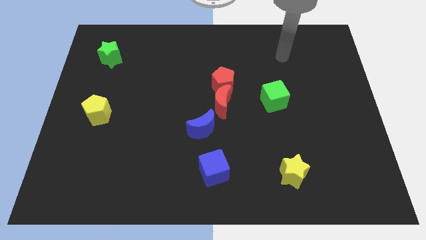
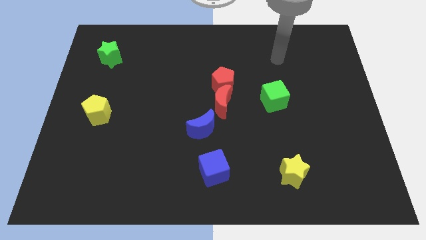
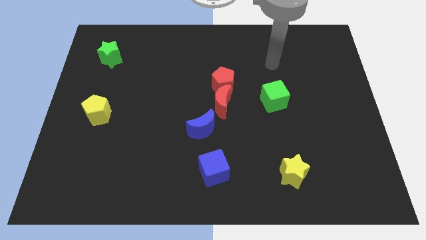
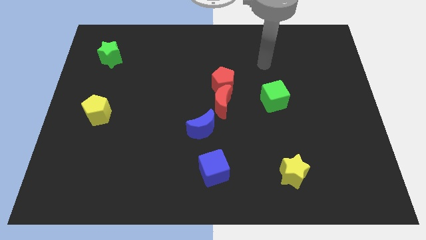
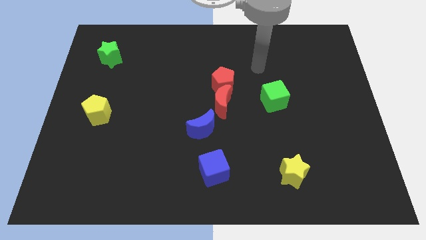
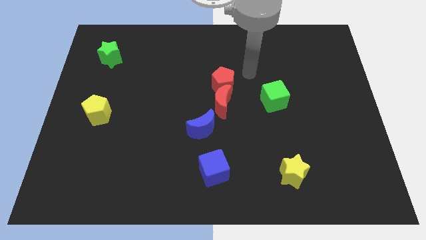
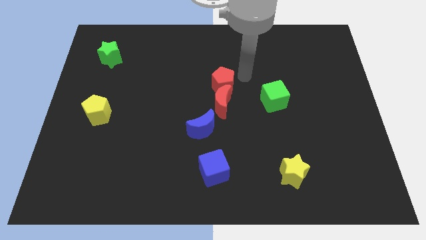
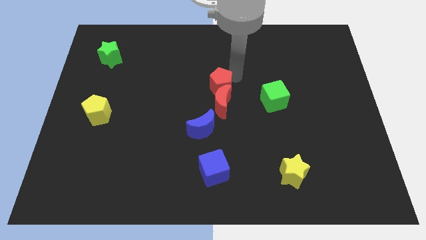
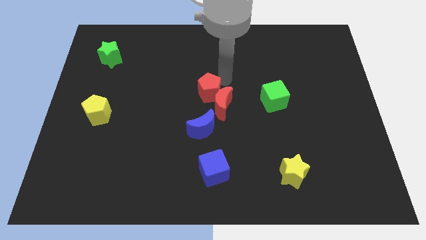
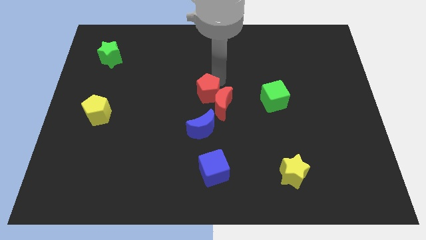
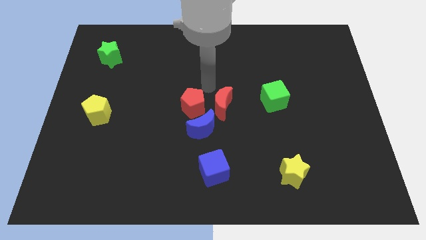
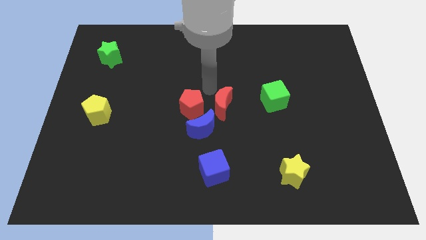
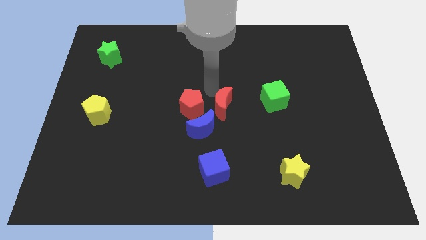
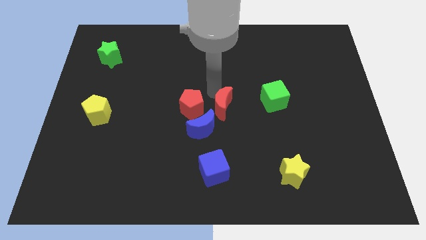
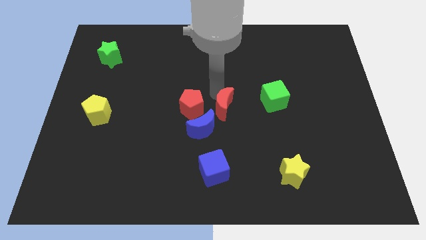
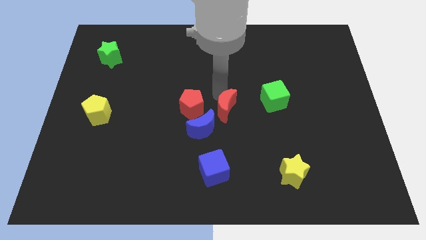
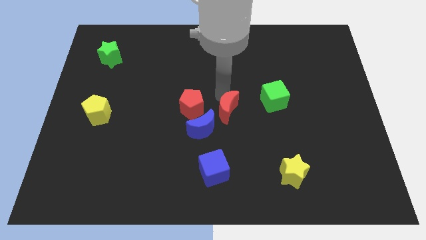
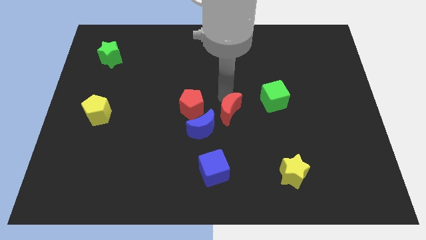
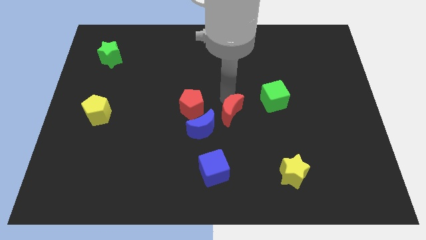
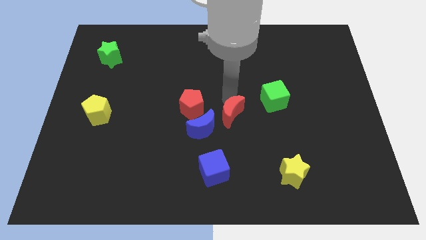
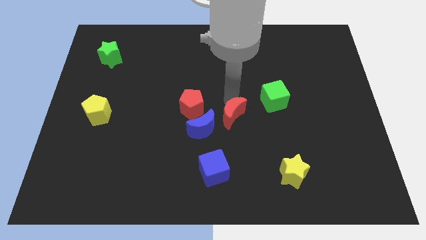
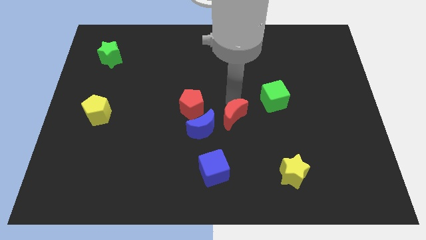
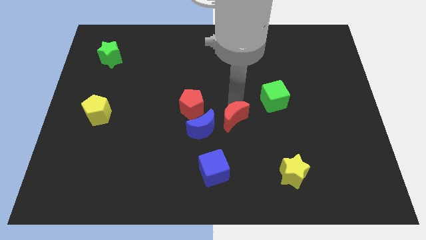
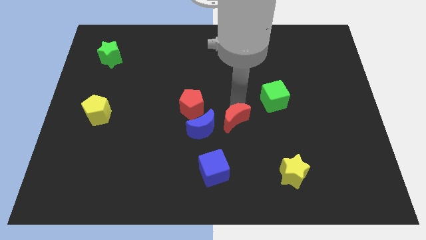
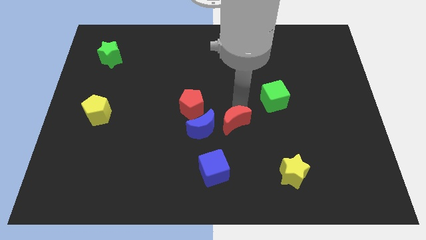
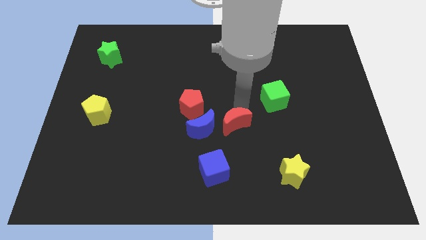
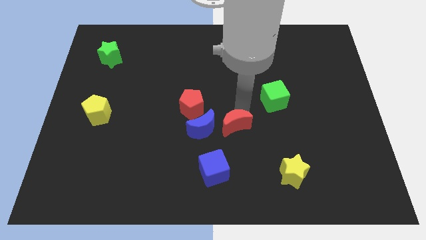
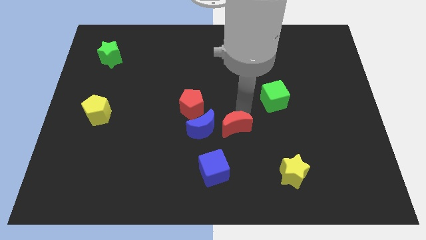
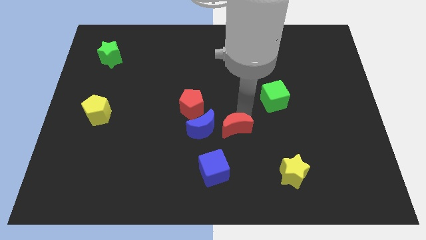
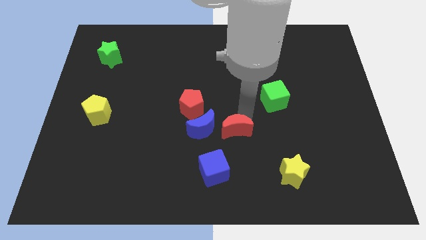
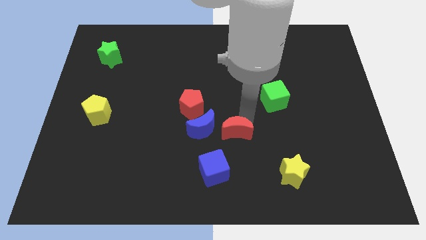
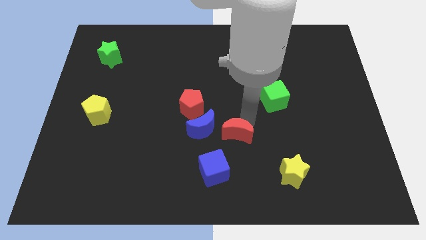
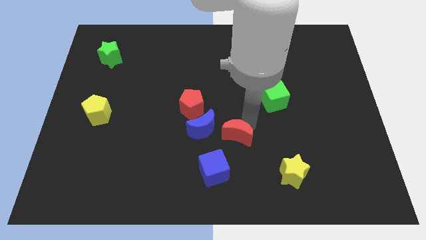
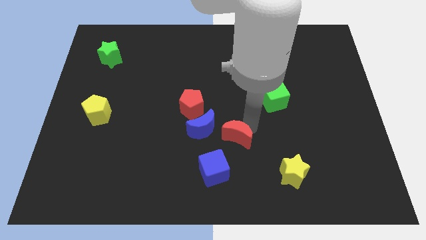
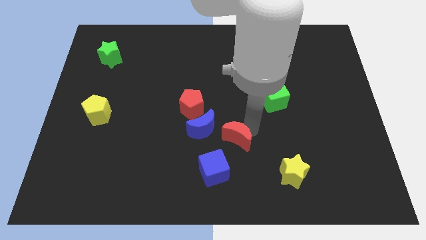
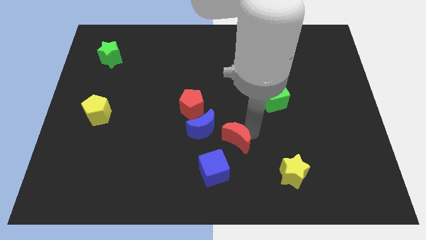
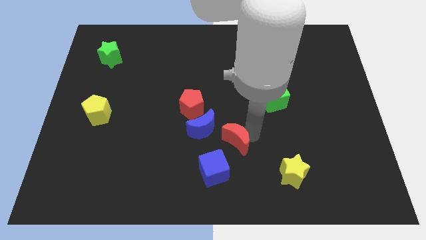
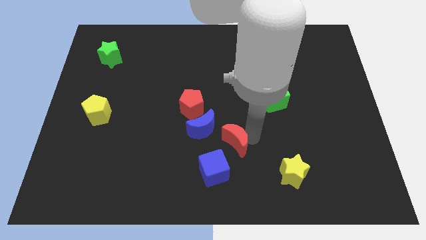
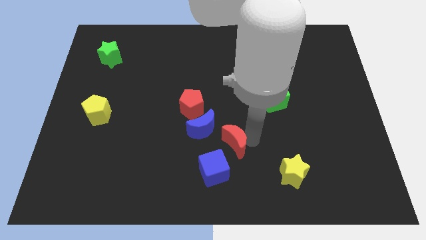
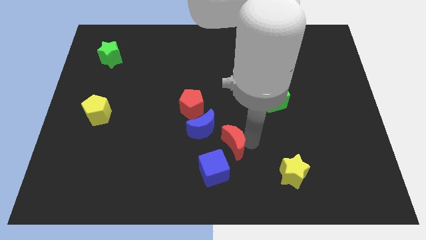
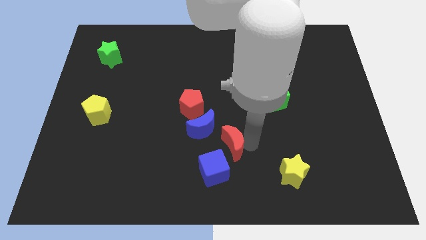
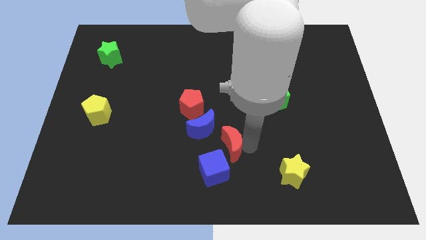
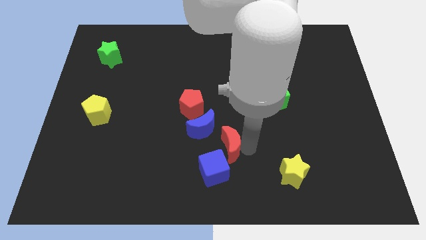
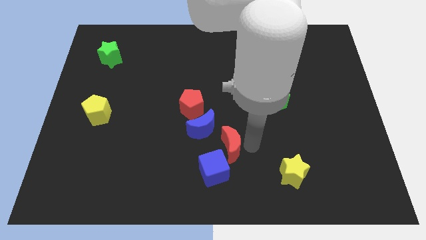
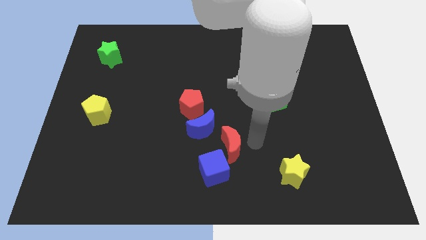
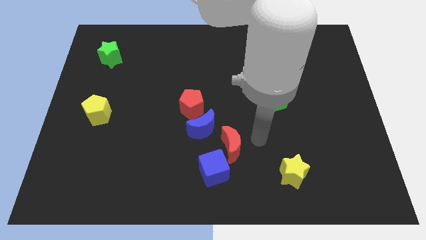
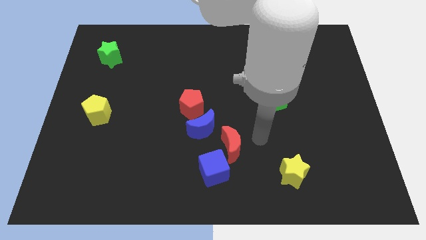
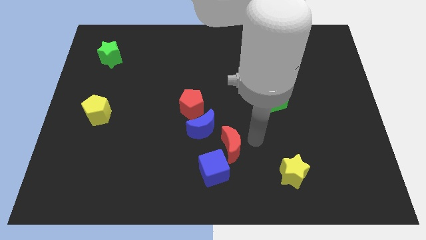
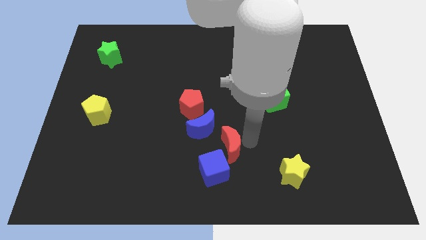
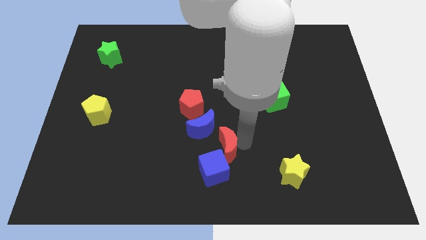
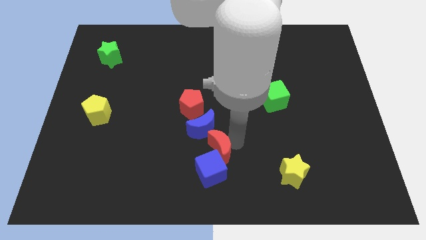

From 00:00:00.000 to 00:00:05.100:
push the red moon next to the blue cube

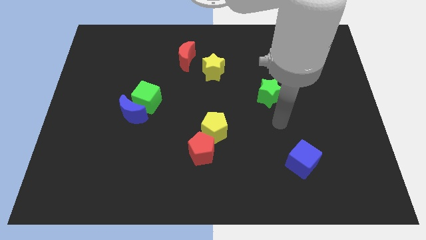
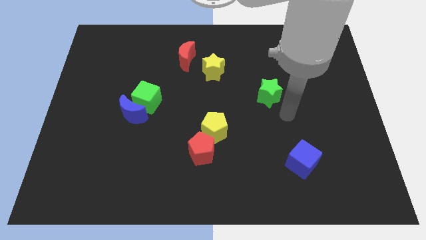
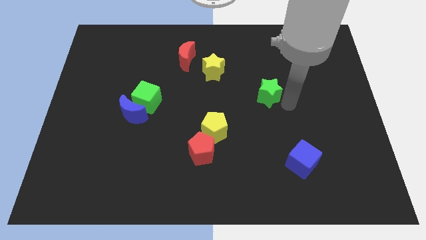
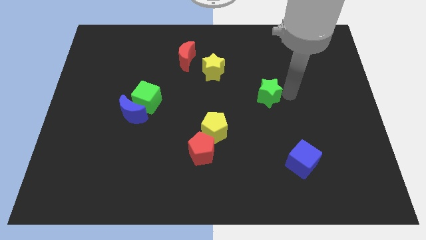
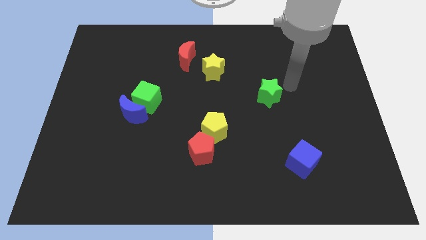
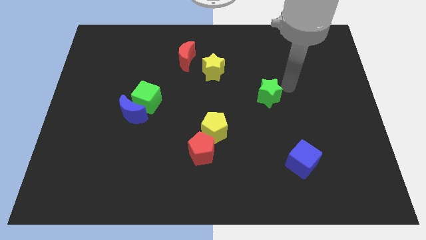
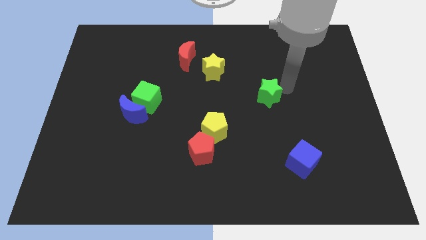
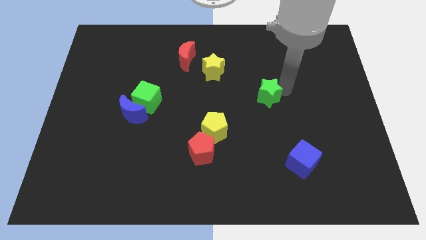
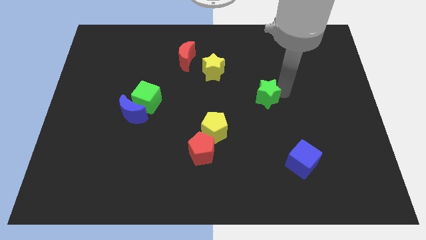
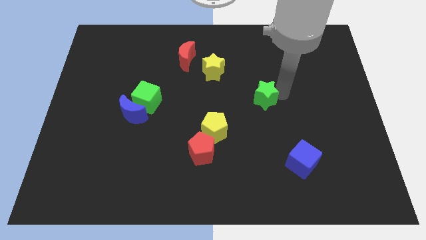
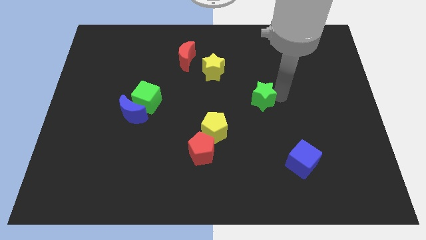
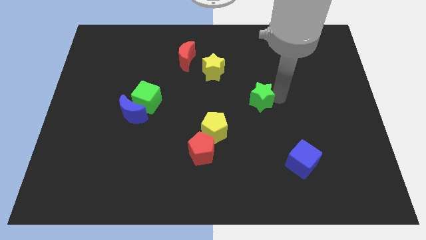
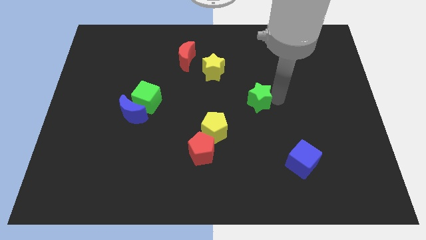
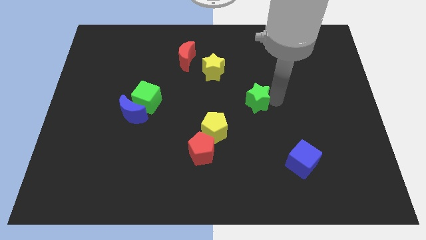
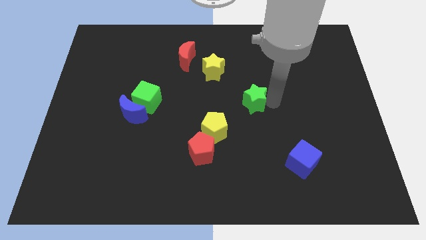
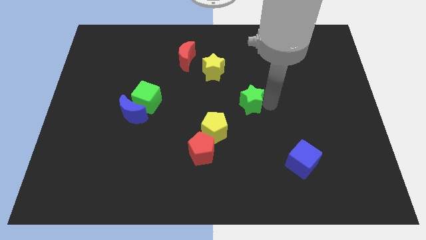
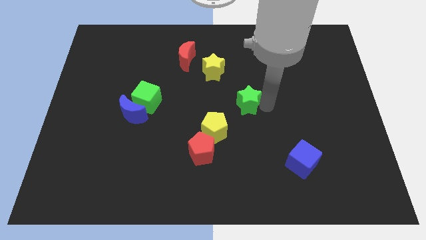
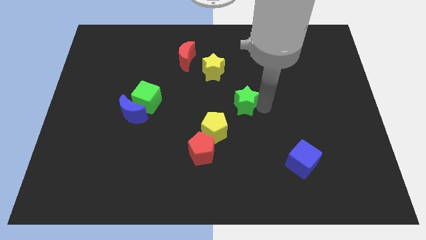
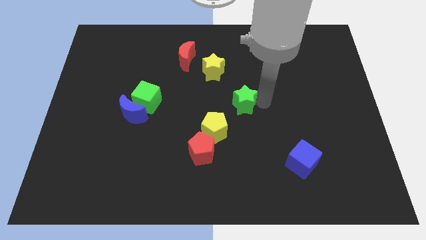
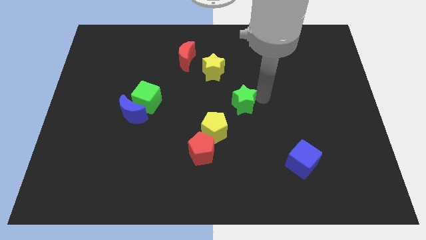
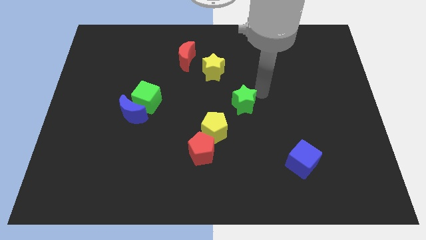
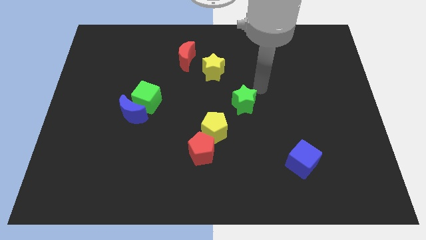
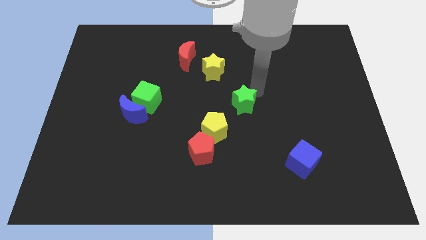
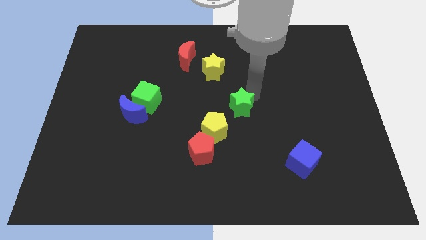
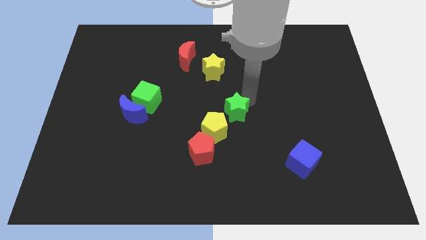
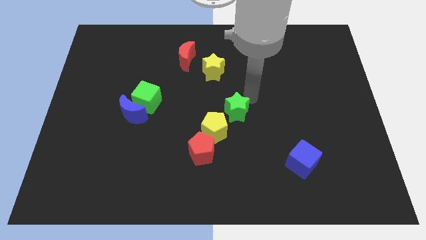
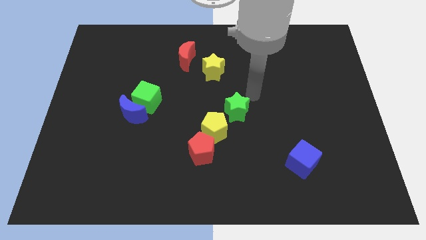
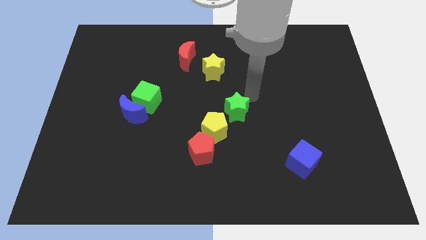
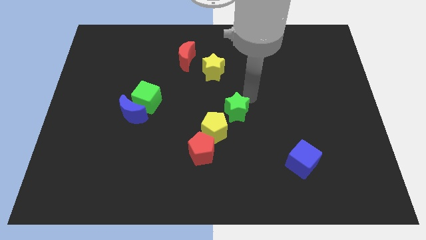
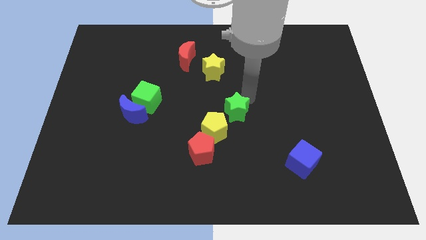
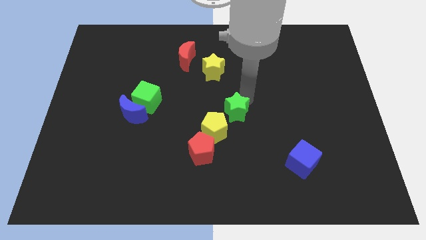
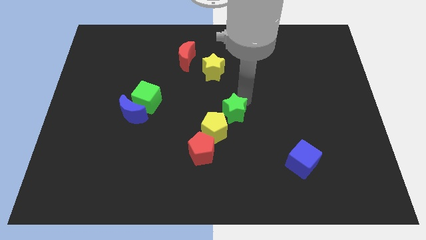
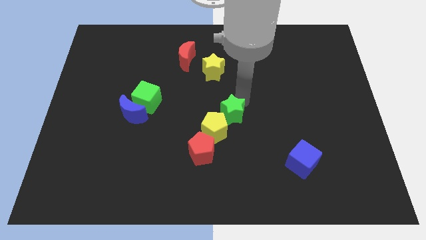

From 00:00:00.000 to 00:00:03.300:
put the green star close to the yellow pentagon
